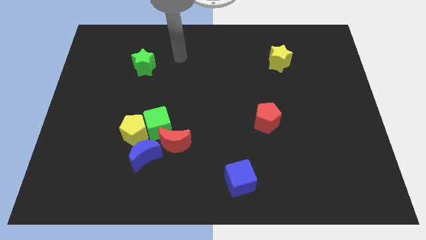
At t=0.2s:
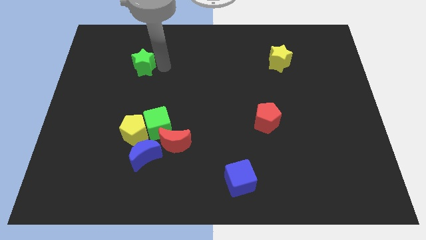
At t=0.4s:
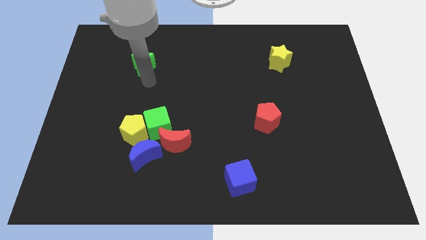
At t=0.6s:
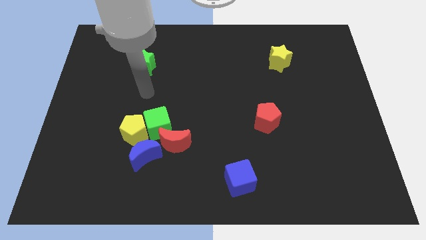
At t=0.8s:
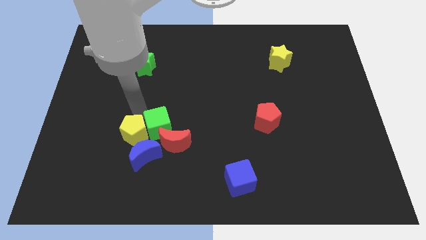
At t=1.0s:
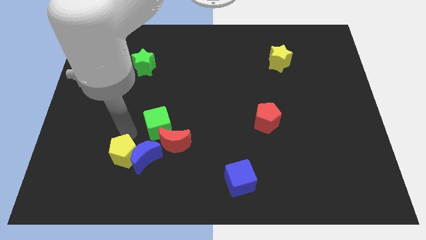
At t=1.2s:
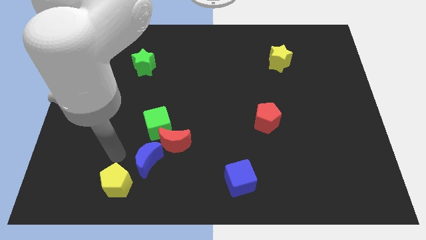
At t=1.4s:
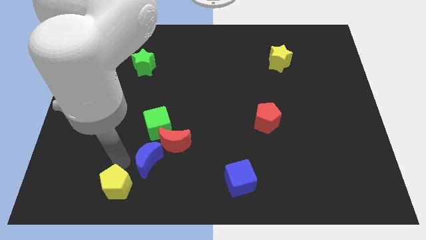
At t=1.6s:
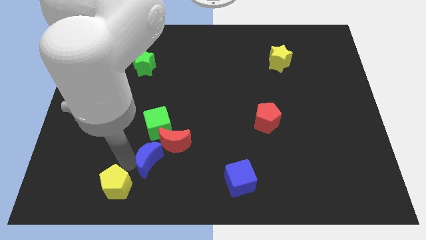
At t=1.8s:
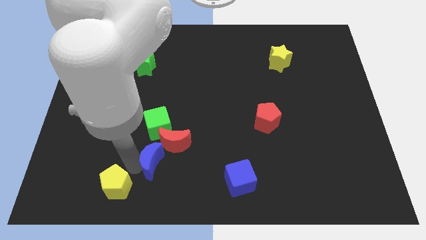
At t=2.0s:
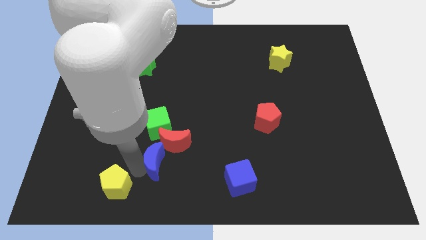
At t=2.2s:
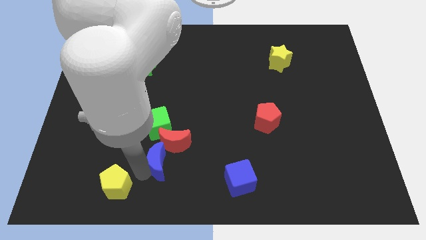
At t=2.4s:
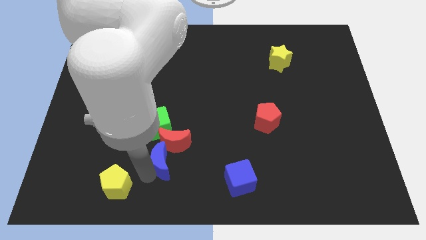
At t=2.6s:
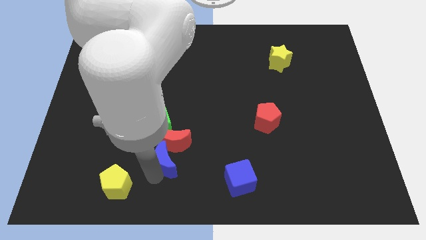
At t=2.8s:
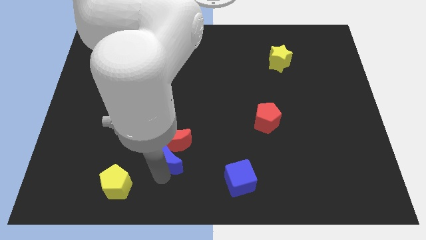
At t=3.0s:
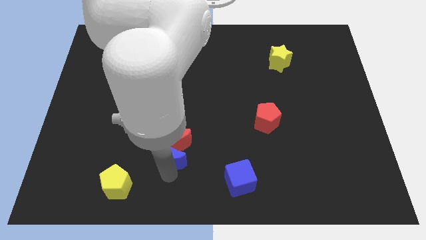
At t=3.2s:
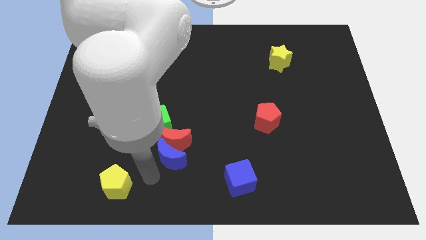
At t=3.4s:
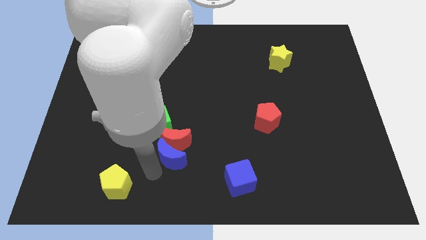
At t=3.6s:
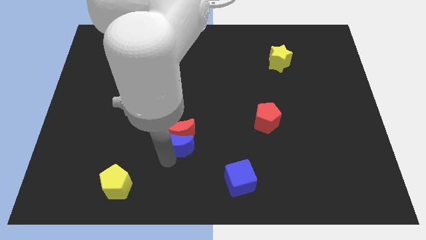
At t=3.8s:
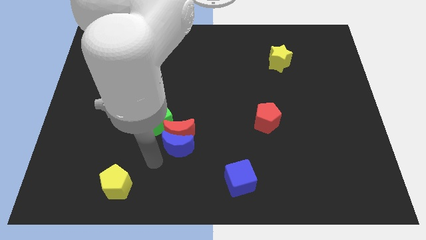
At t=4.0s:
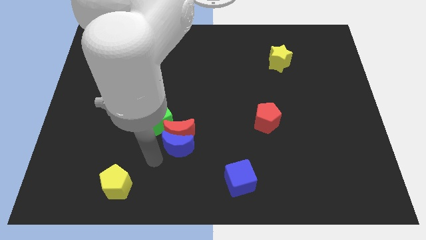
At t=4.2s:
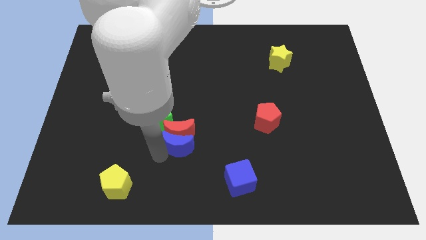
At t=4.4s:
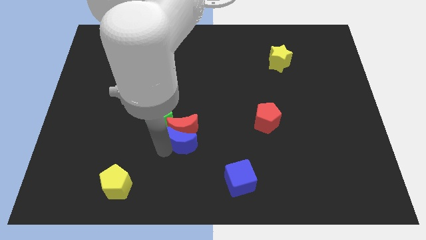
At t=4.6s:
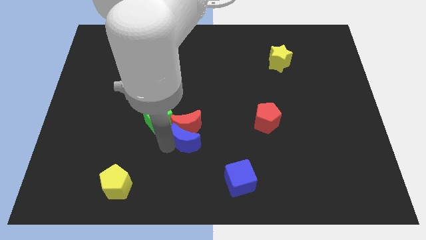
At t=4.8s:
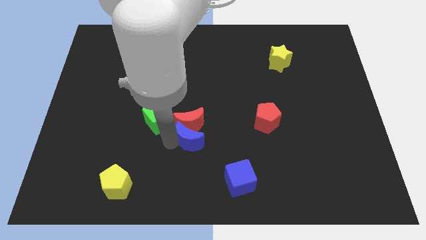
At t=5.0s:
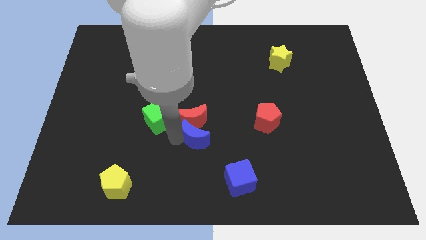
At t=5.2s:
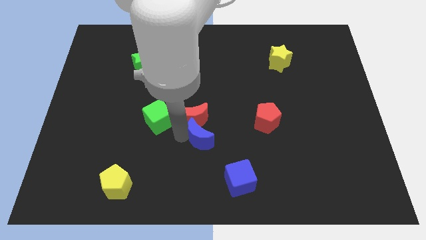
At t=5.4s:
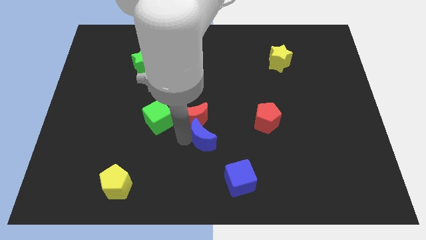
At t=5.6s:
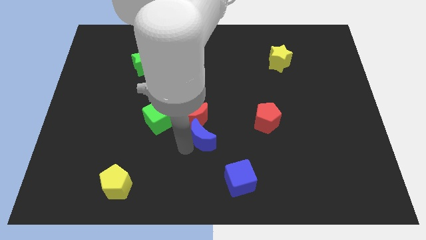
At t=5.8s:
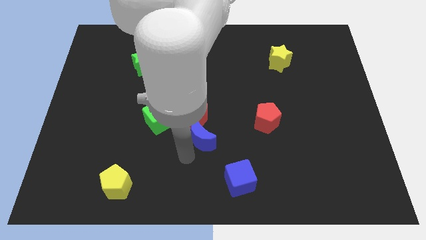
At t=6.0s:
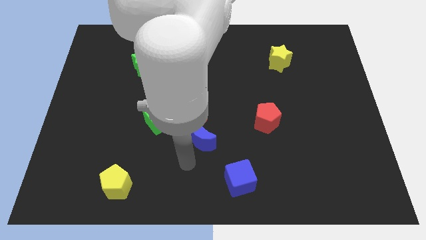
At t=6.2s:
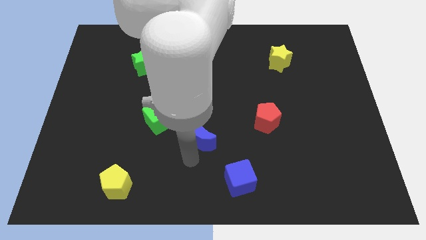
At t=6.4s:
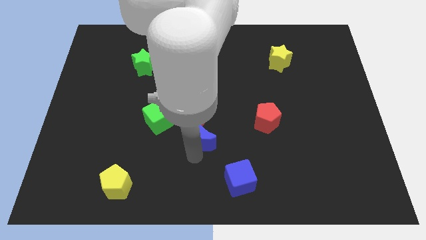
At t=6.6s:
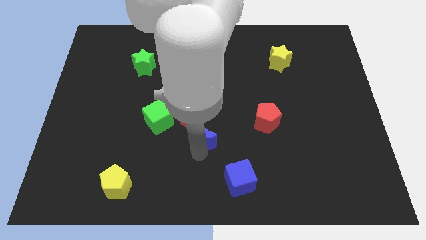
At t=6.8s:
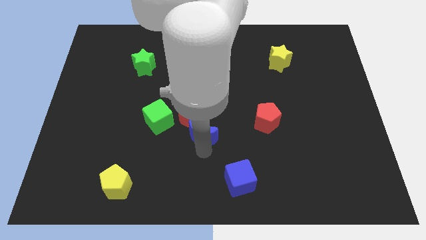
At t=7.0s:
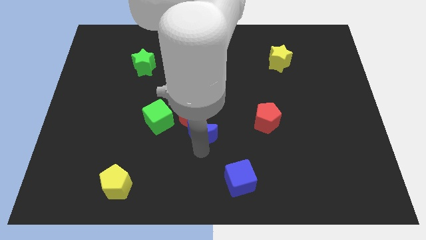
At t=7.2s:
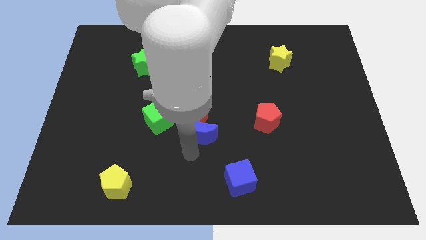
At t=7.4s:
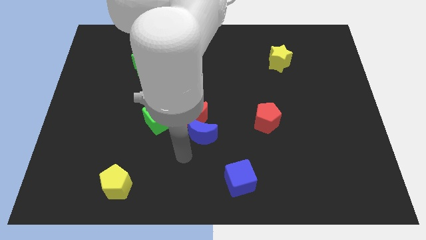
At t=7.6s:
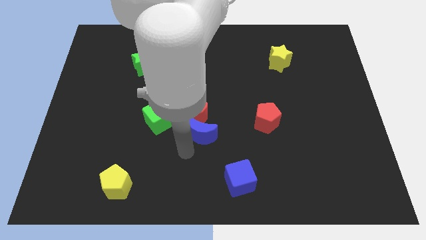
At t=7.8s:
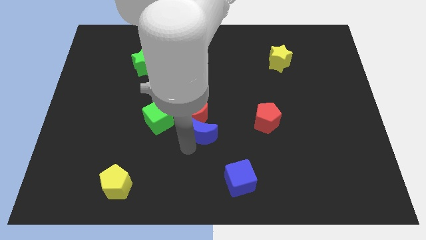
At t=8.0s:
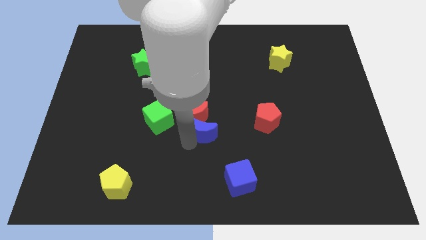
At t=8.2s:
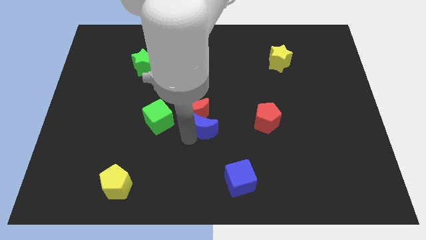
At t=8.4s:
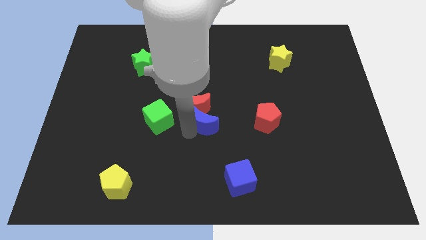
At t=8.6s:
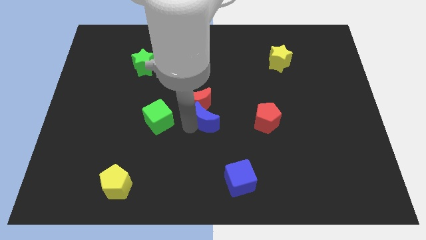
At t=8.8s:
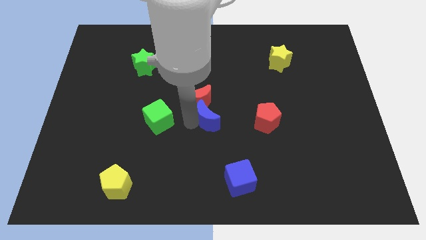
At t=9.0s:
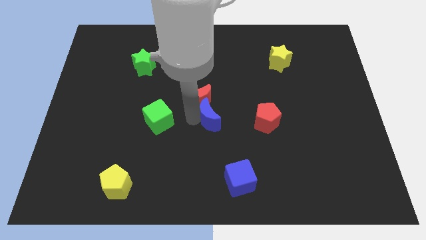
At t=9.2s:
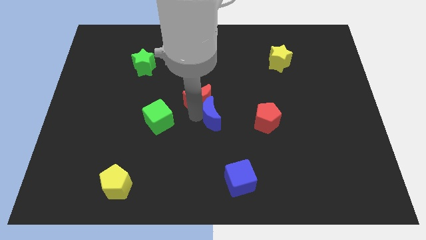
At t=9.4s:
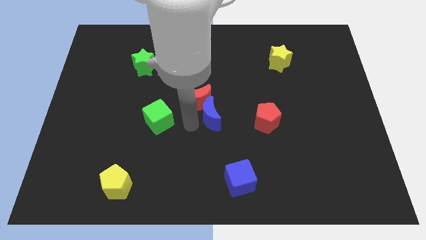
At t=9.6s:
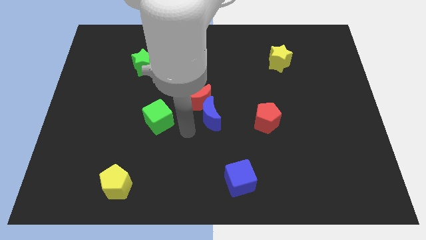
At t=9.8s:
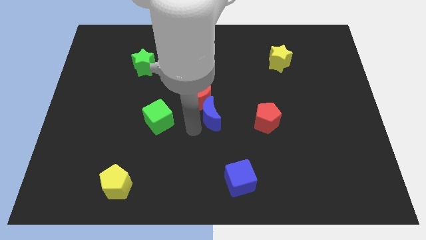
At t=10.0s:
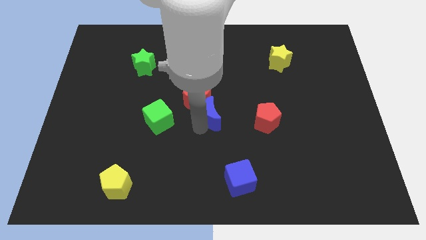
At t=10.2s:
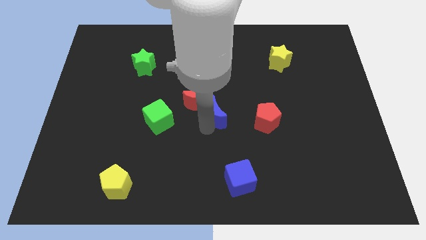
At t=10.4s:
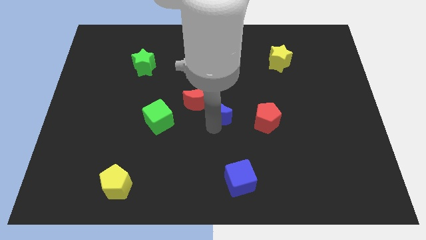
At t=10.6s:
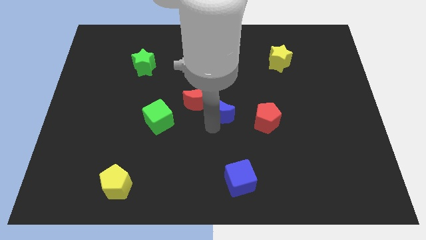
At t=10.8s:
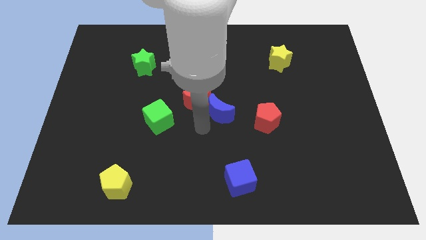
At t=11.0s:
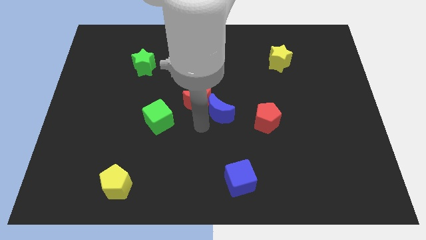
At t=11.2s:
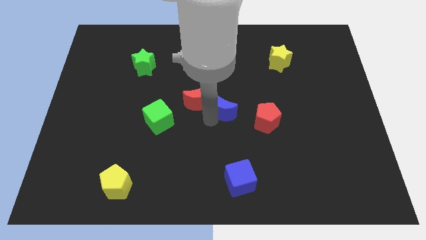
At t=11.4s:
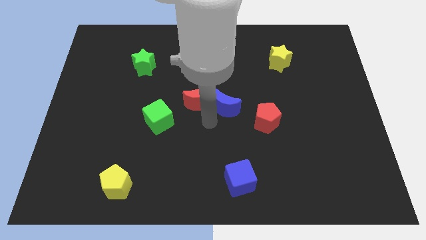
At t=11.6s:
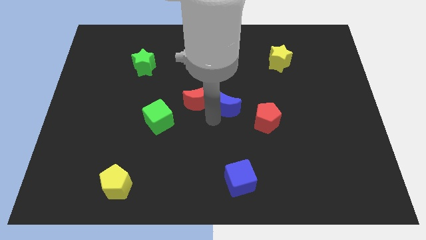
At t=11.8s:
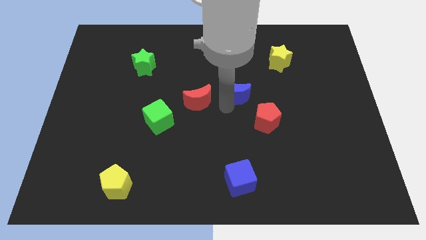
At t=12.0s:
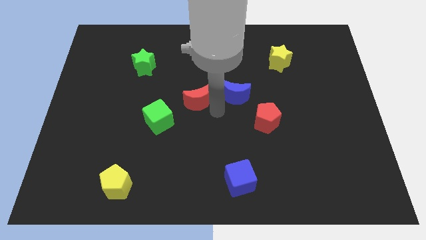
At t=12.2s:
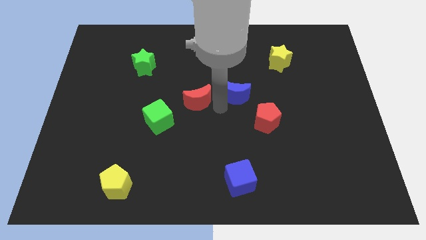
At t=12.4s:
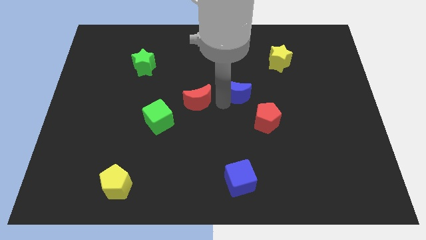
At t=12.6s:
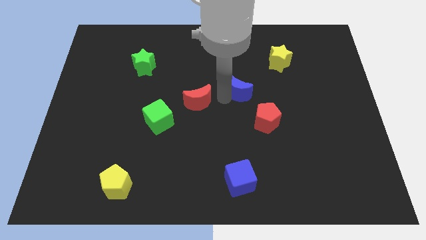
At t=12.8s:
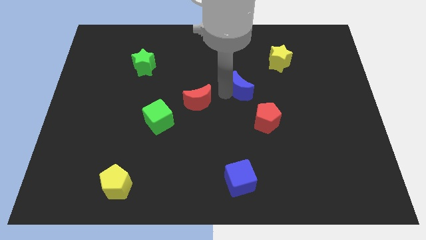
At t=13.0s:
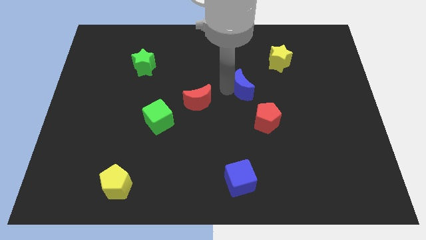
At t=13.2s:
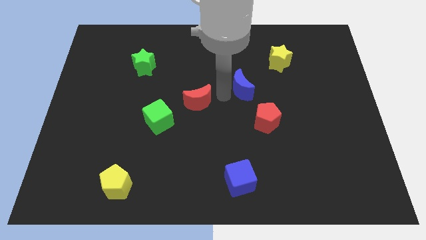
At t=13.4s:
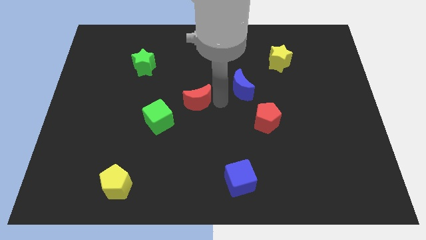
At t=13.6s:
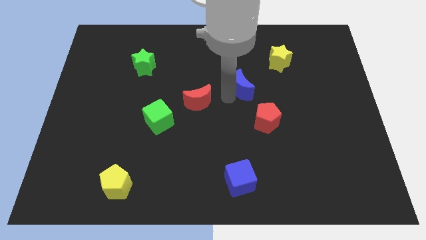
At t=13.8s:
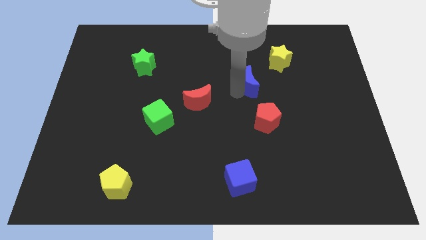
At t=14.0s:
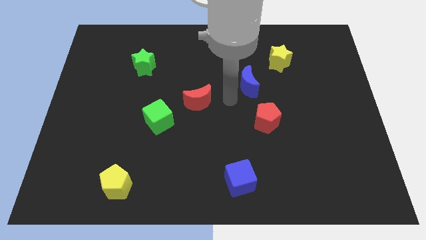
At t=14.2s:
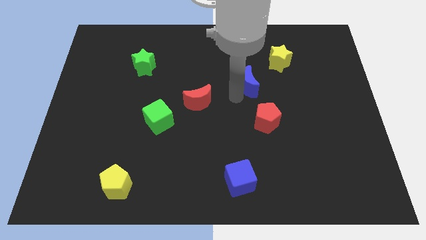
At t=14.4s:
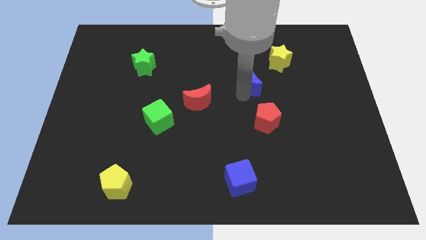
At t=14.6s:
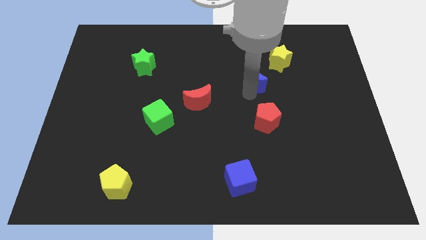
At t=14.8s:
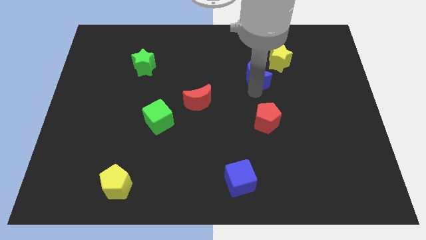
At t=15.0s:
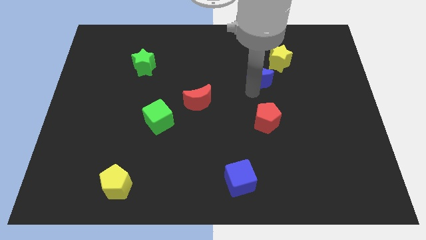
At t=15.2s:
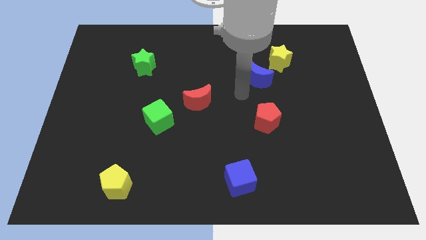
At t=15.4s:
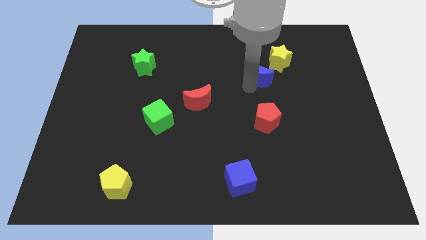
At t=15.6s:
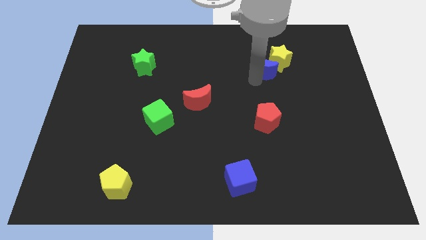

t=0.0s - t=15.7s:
push the blue moon towards the yellow star
